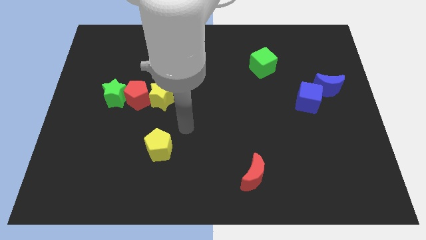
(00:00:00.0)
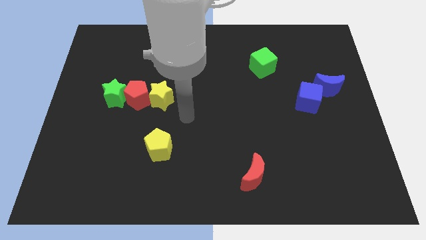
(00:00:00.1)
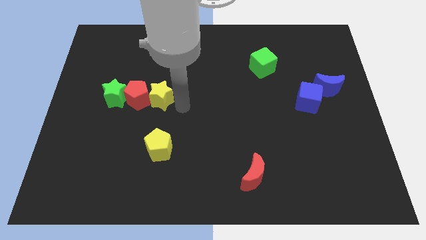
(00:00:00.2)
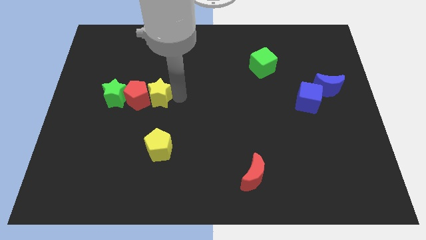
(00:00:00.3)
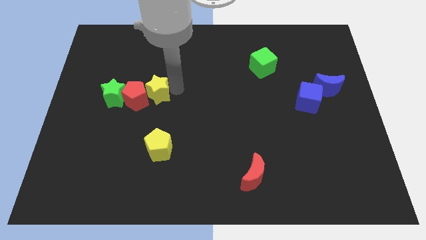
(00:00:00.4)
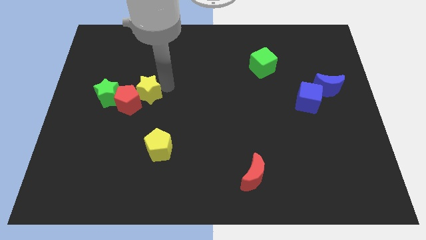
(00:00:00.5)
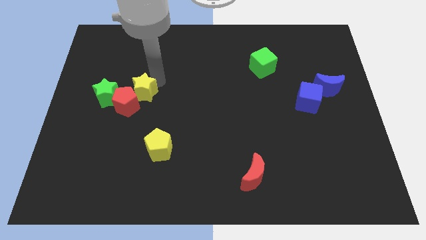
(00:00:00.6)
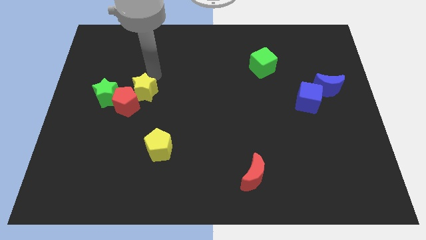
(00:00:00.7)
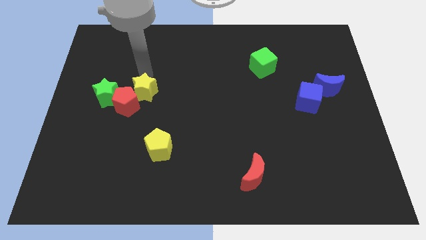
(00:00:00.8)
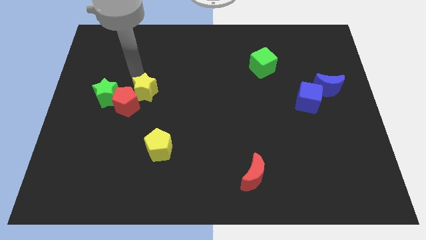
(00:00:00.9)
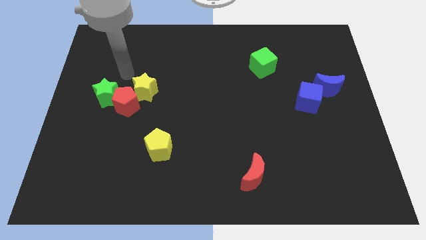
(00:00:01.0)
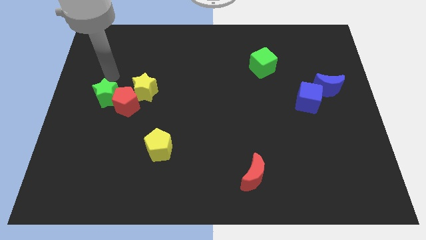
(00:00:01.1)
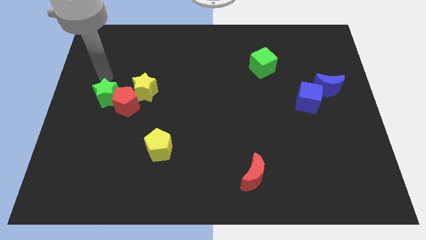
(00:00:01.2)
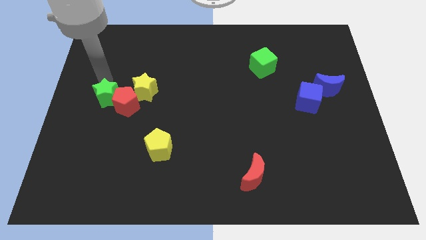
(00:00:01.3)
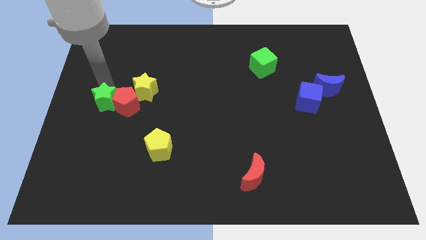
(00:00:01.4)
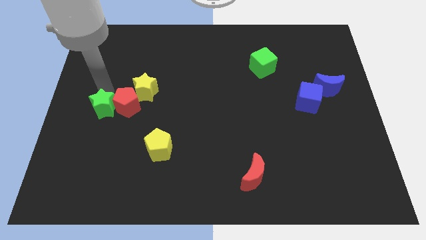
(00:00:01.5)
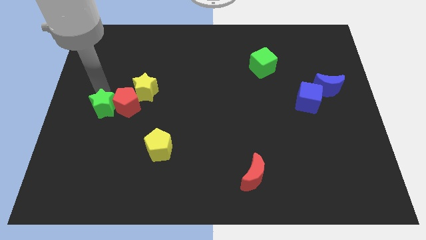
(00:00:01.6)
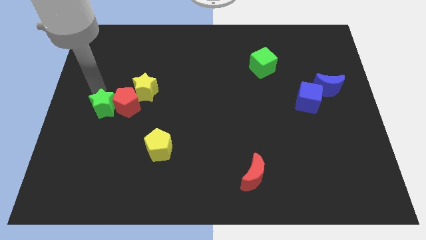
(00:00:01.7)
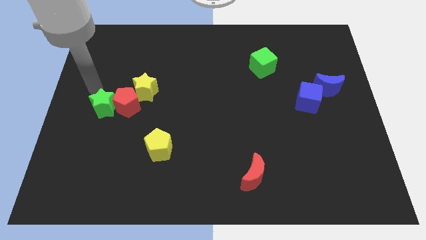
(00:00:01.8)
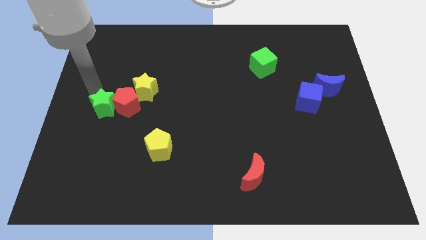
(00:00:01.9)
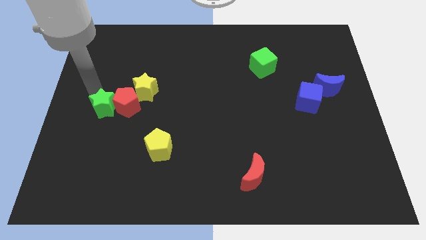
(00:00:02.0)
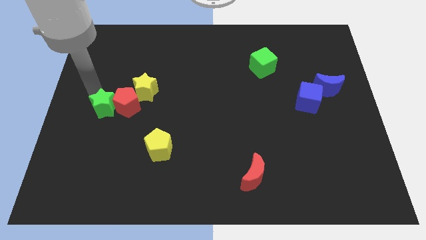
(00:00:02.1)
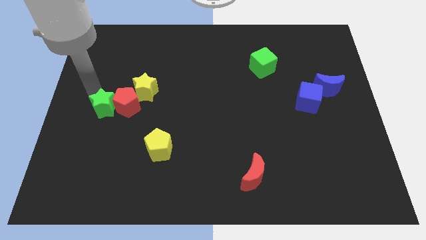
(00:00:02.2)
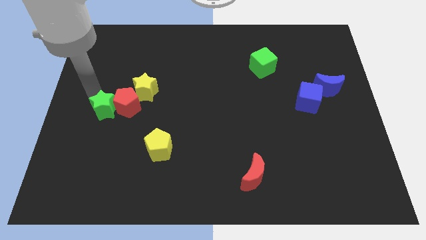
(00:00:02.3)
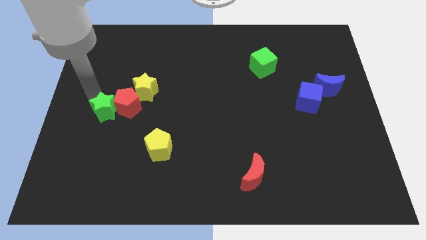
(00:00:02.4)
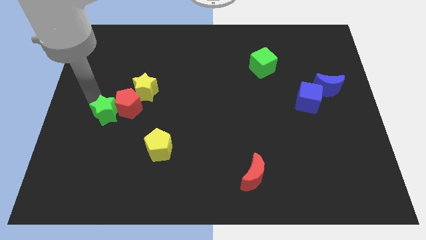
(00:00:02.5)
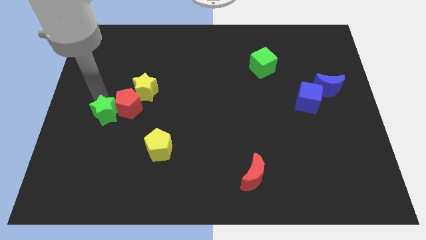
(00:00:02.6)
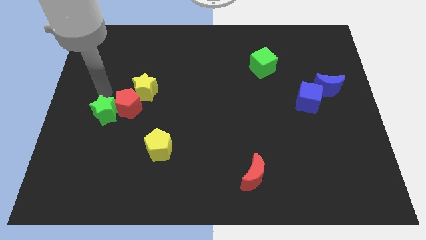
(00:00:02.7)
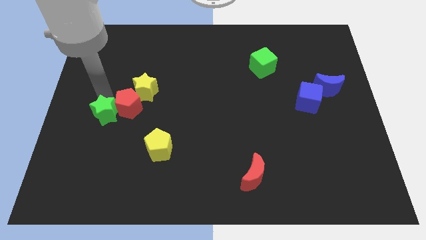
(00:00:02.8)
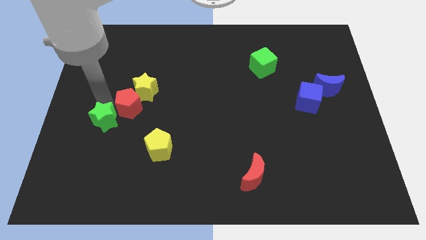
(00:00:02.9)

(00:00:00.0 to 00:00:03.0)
slightly push the green star downwards

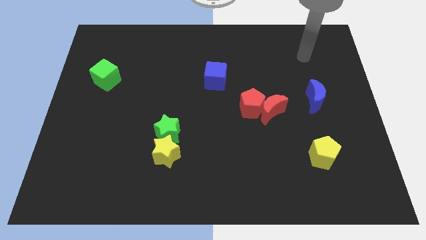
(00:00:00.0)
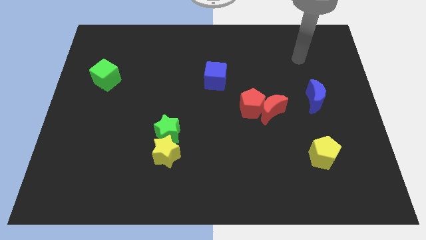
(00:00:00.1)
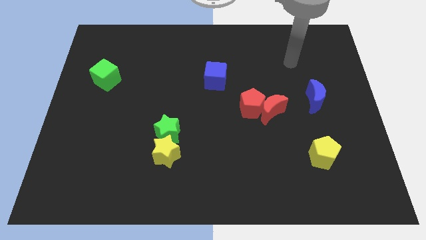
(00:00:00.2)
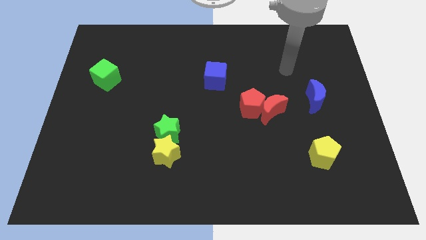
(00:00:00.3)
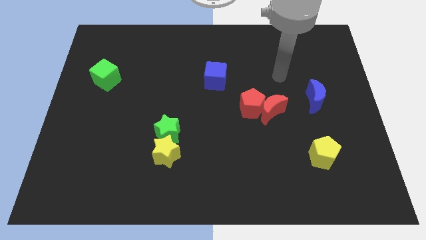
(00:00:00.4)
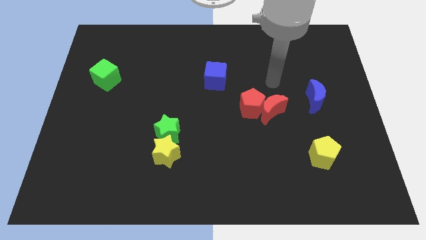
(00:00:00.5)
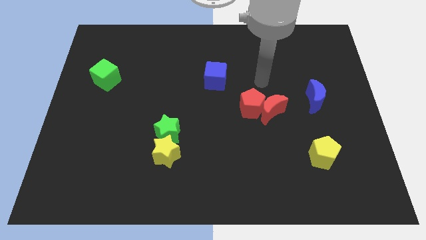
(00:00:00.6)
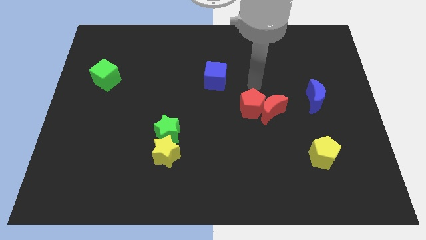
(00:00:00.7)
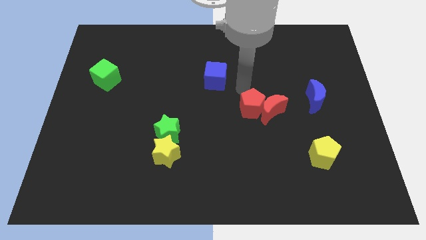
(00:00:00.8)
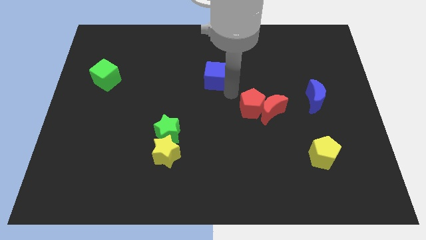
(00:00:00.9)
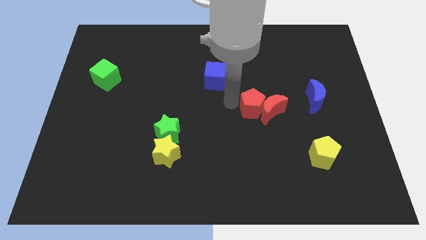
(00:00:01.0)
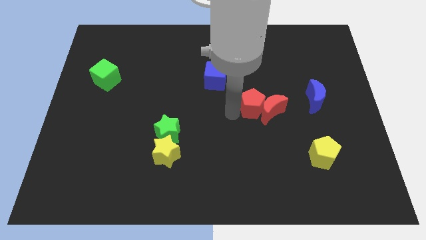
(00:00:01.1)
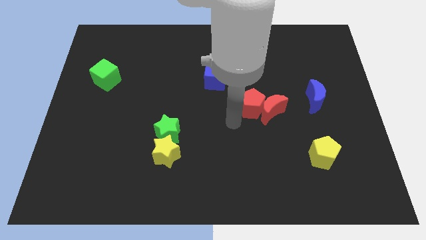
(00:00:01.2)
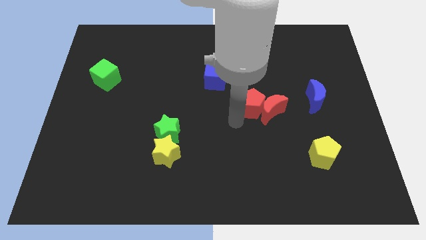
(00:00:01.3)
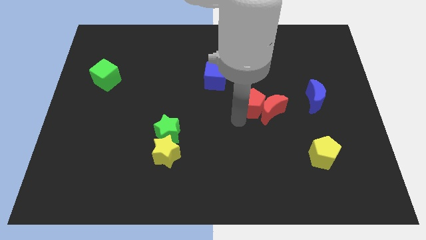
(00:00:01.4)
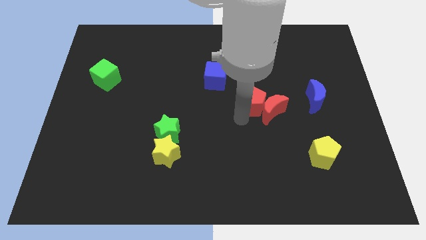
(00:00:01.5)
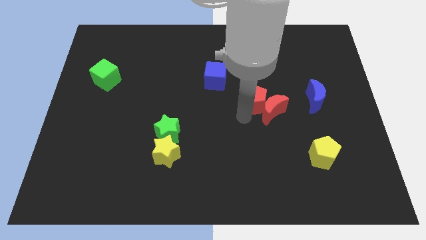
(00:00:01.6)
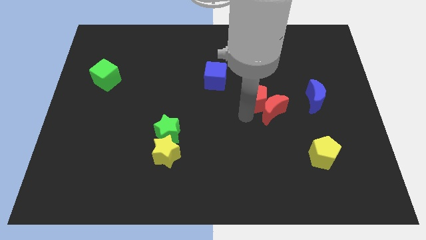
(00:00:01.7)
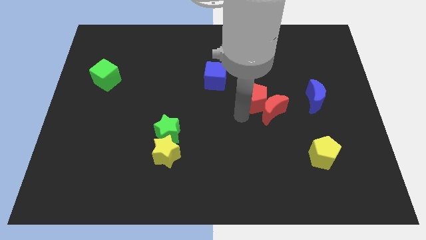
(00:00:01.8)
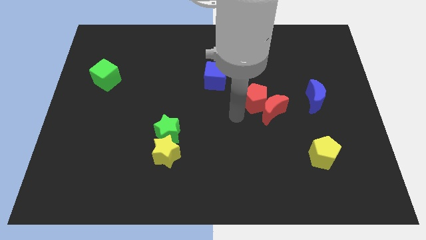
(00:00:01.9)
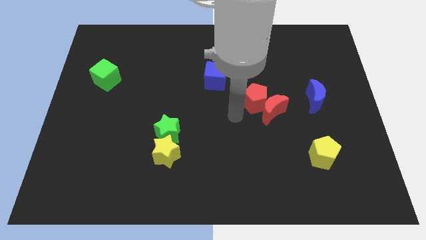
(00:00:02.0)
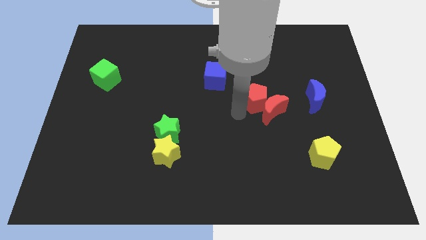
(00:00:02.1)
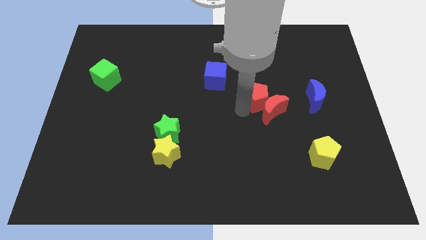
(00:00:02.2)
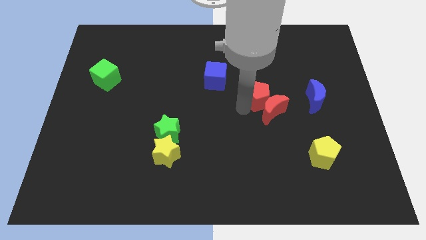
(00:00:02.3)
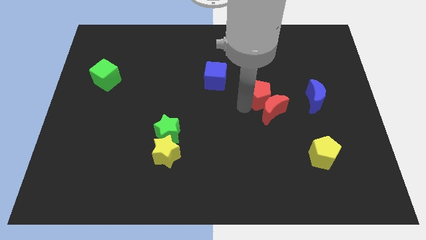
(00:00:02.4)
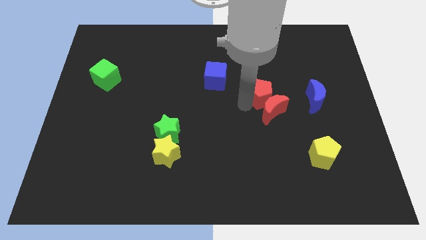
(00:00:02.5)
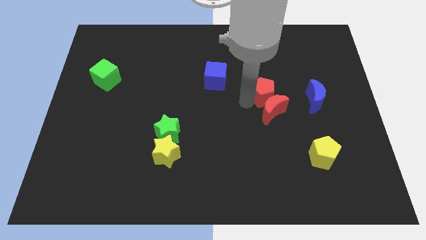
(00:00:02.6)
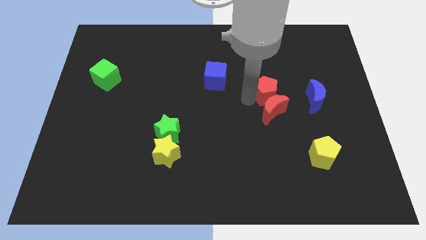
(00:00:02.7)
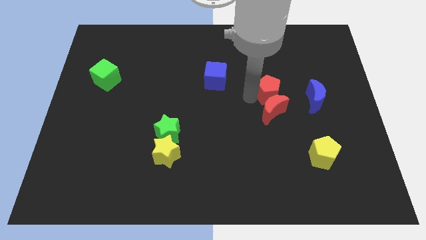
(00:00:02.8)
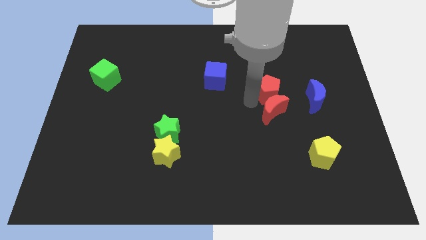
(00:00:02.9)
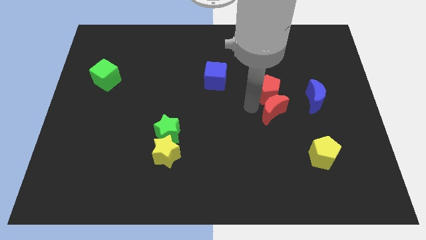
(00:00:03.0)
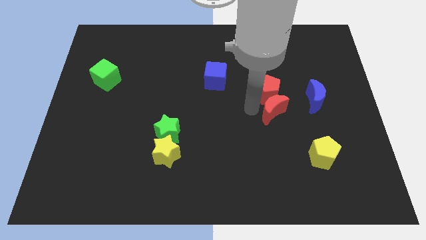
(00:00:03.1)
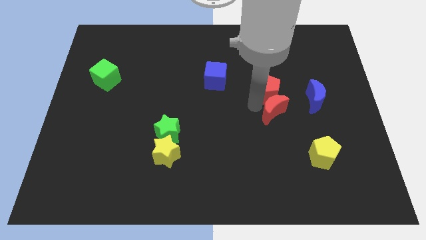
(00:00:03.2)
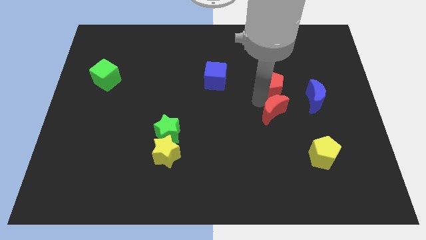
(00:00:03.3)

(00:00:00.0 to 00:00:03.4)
slightly push the red pentagon diagonally upwards and to the right

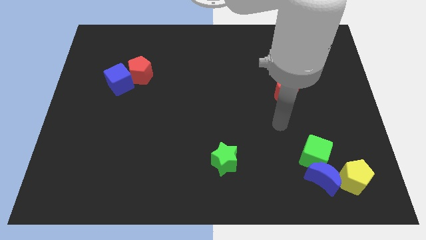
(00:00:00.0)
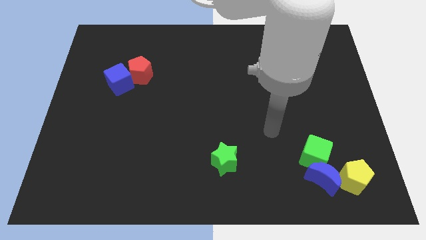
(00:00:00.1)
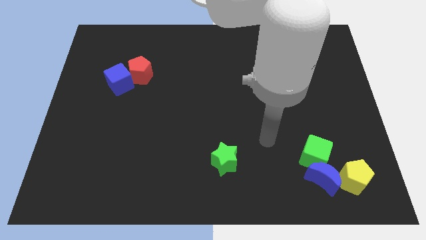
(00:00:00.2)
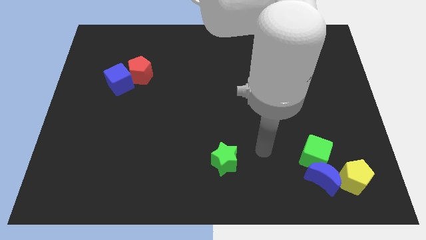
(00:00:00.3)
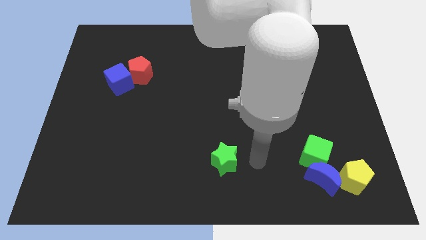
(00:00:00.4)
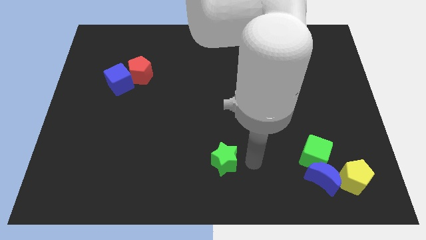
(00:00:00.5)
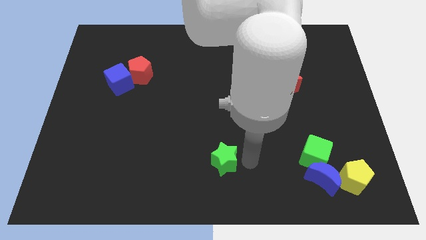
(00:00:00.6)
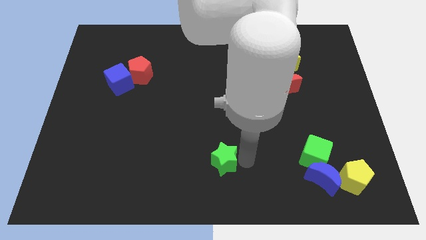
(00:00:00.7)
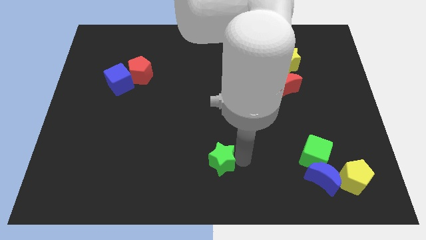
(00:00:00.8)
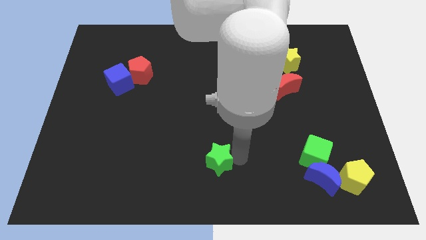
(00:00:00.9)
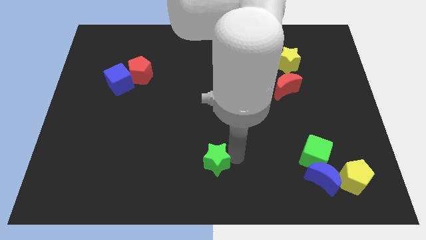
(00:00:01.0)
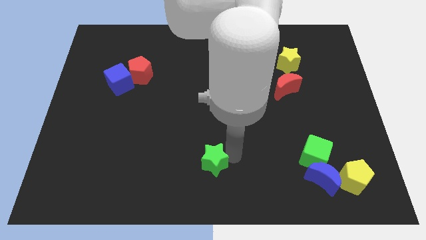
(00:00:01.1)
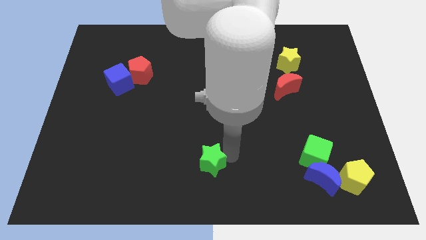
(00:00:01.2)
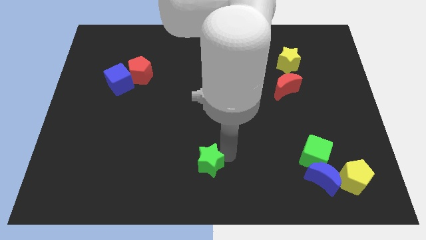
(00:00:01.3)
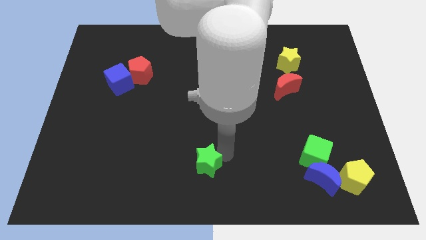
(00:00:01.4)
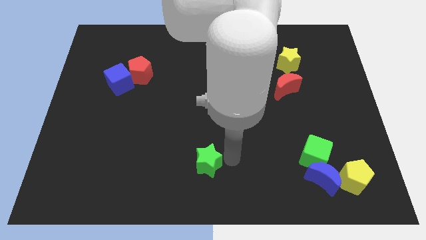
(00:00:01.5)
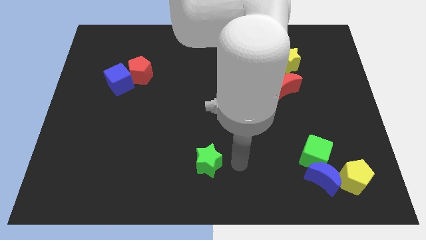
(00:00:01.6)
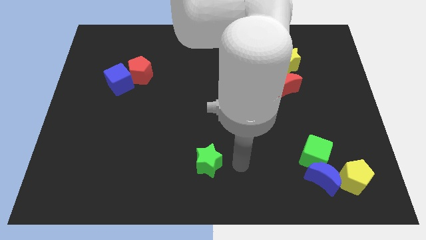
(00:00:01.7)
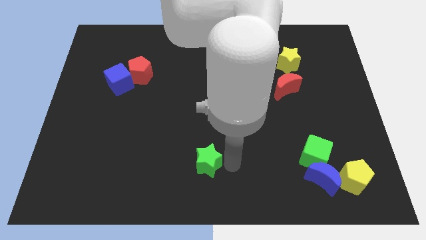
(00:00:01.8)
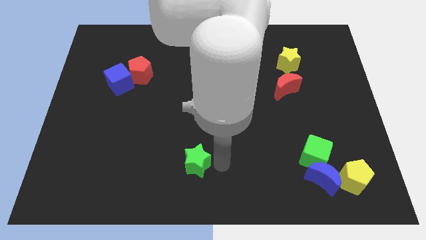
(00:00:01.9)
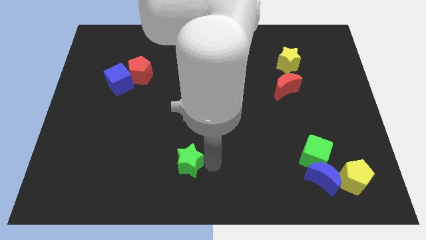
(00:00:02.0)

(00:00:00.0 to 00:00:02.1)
slightly push the green star to the left
